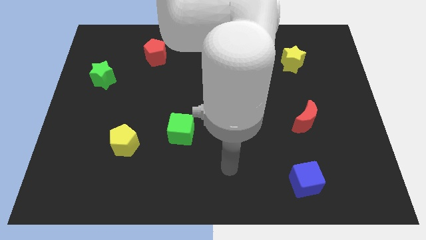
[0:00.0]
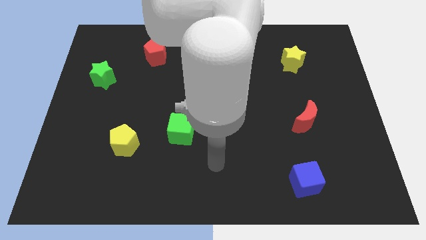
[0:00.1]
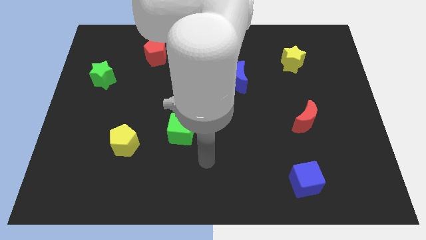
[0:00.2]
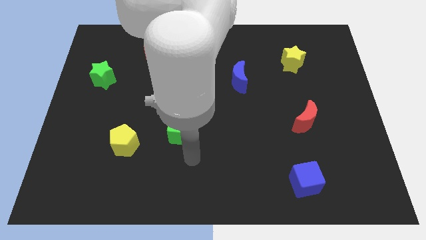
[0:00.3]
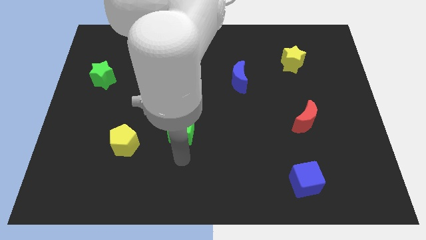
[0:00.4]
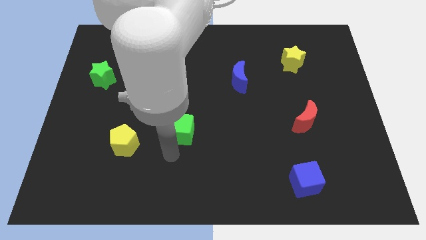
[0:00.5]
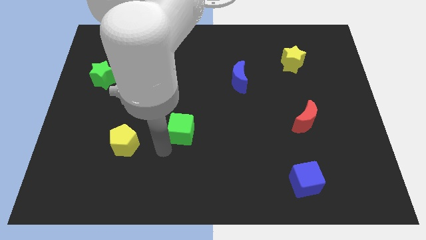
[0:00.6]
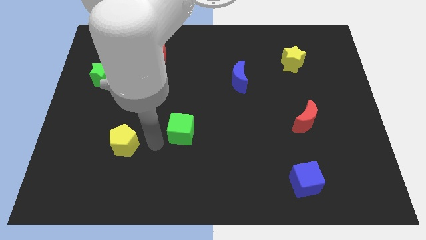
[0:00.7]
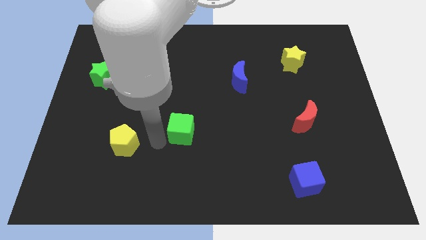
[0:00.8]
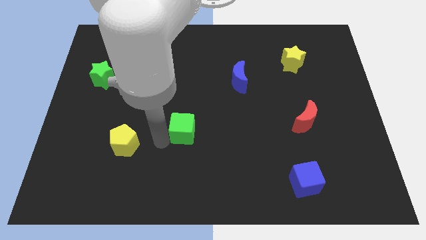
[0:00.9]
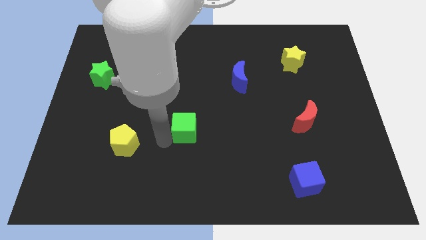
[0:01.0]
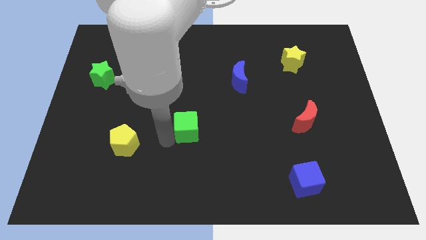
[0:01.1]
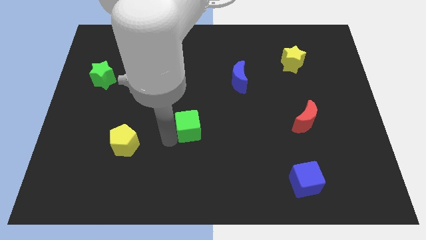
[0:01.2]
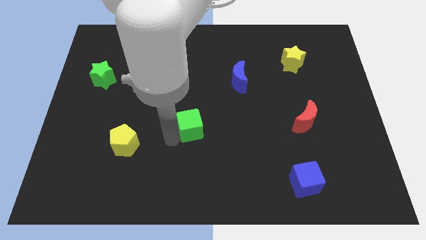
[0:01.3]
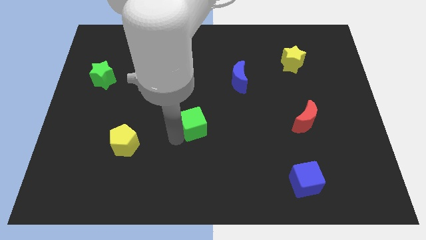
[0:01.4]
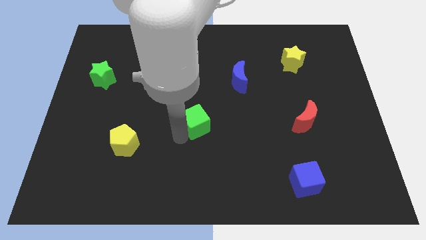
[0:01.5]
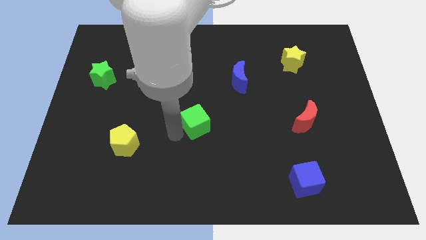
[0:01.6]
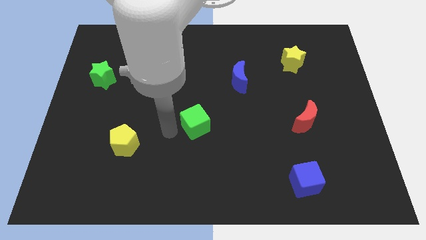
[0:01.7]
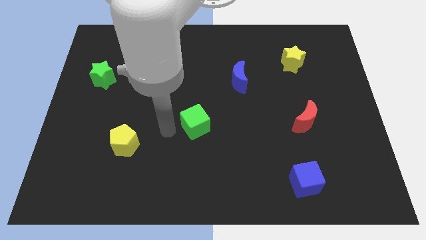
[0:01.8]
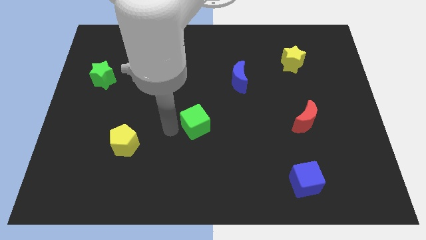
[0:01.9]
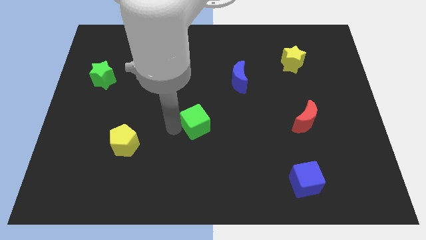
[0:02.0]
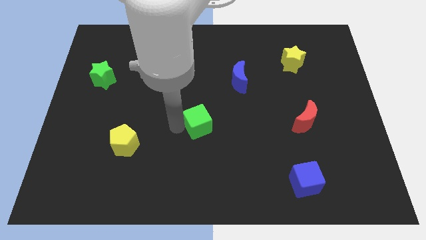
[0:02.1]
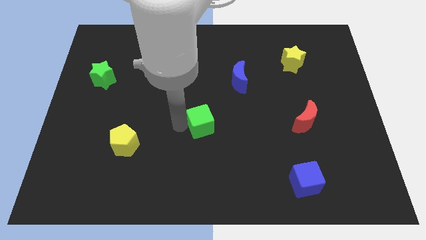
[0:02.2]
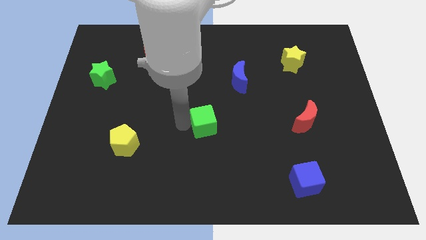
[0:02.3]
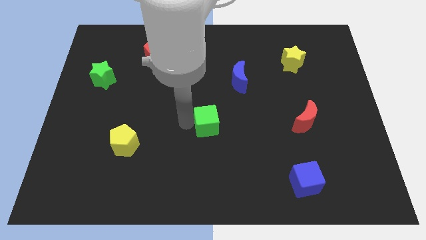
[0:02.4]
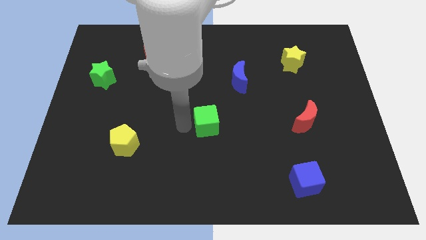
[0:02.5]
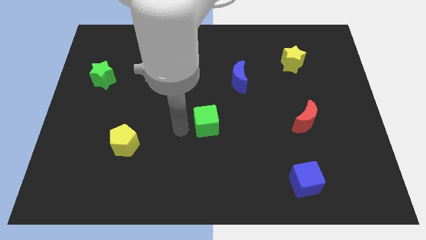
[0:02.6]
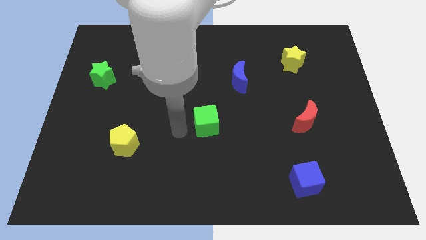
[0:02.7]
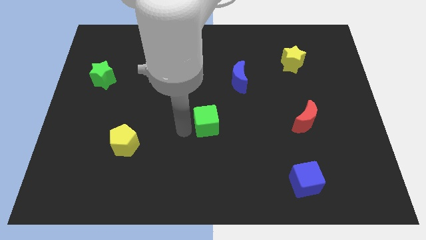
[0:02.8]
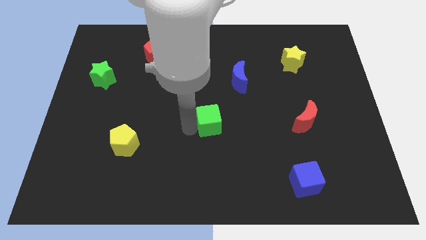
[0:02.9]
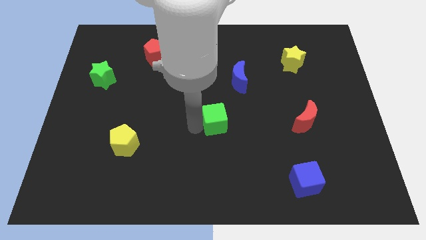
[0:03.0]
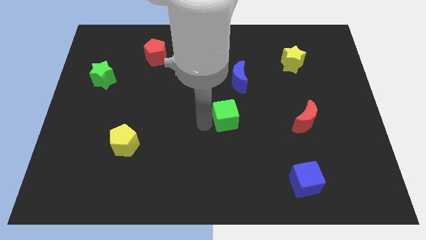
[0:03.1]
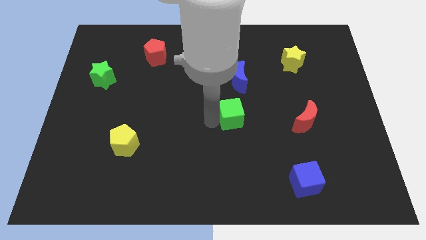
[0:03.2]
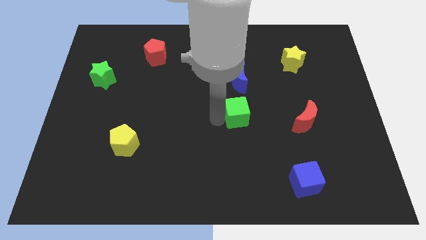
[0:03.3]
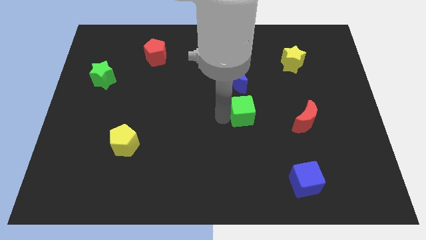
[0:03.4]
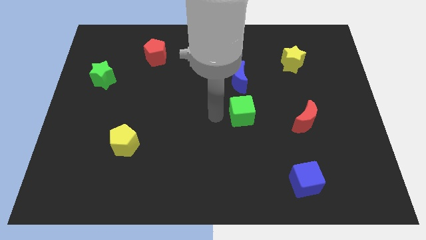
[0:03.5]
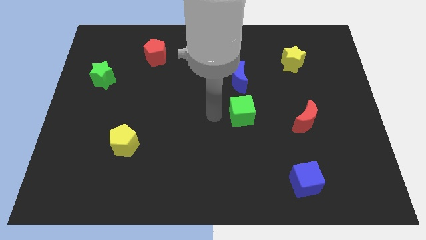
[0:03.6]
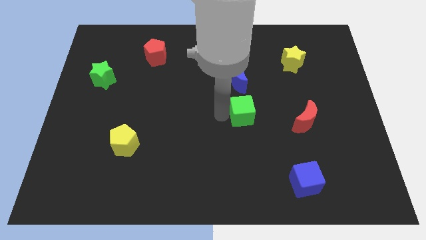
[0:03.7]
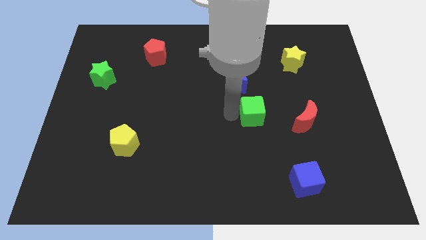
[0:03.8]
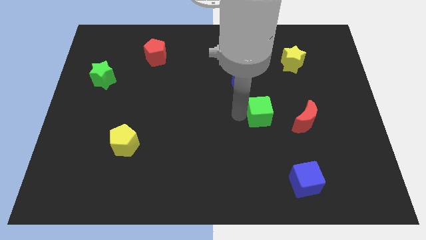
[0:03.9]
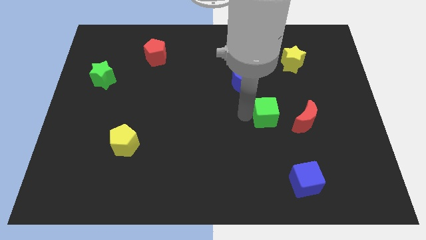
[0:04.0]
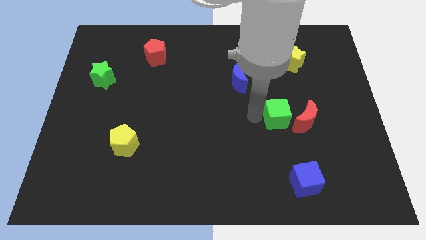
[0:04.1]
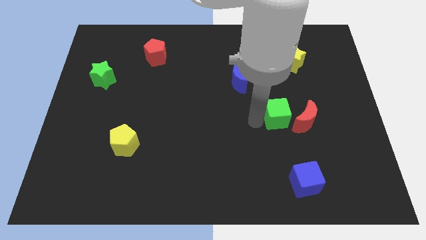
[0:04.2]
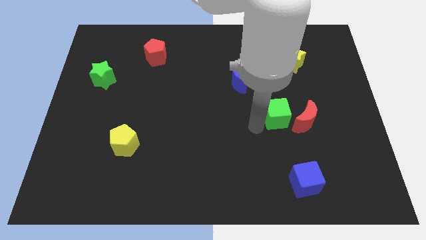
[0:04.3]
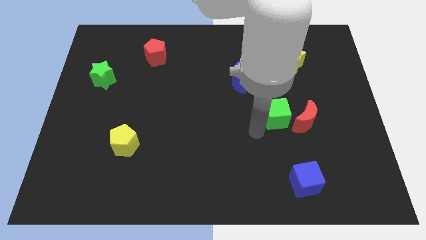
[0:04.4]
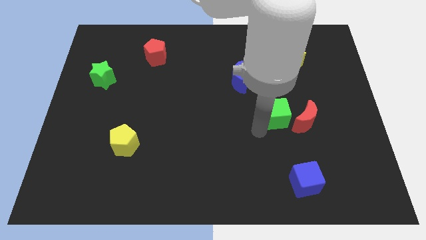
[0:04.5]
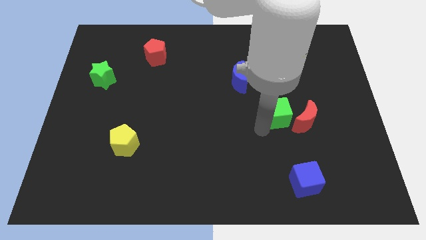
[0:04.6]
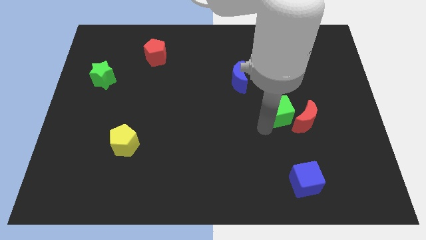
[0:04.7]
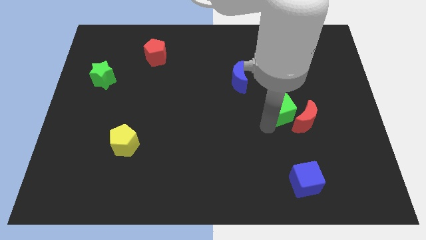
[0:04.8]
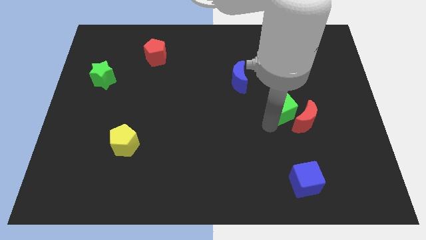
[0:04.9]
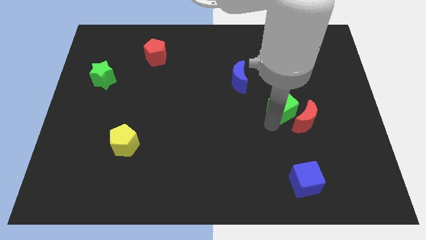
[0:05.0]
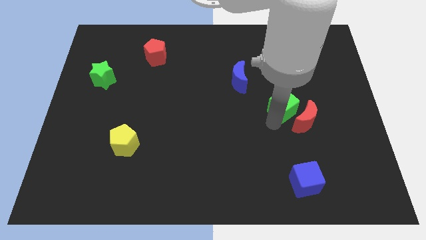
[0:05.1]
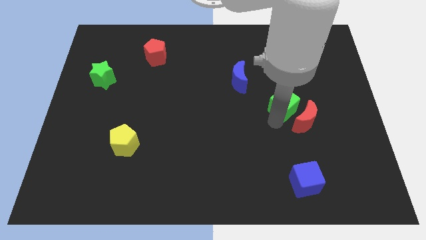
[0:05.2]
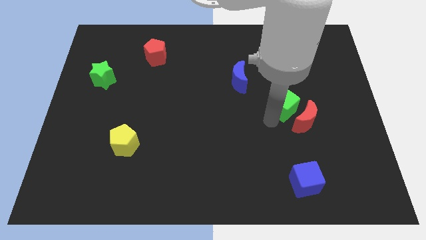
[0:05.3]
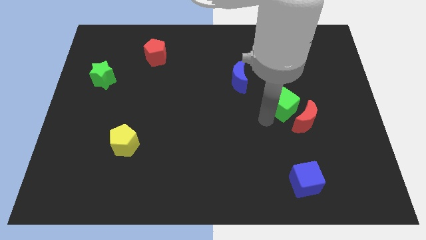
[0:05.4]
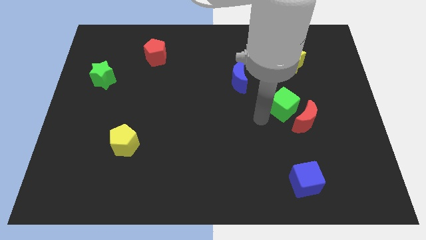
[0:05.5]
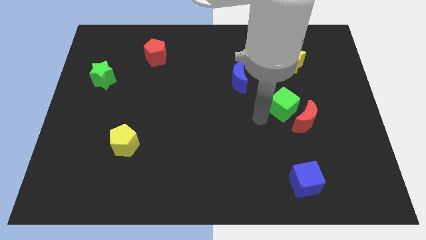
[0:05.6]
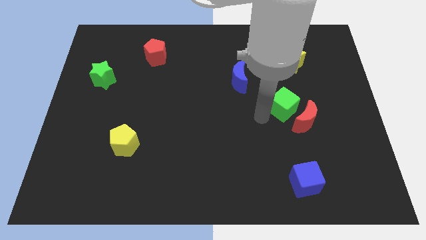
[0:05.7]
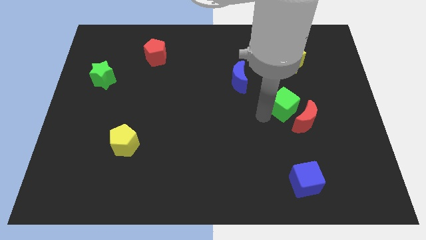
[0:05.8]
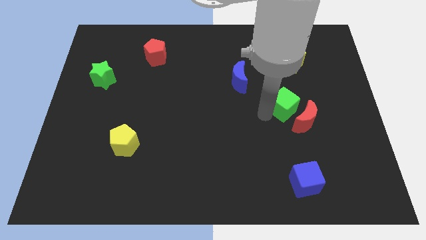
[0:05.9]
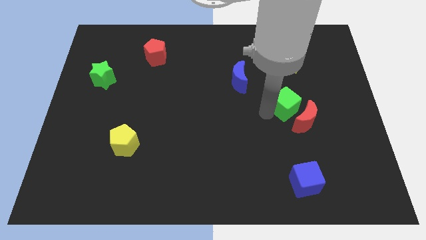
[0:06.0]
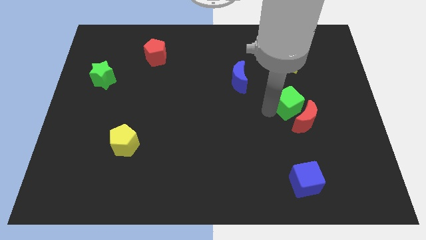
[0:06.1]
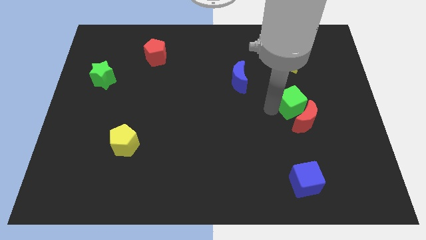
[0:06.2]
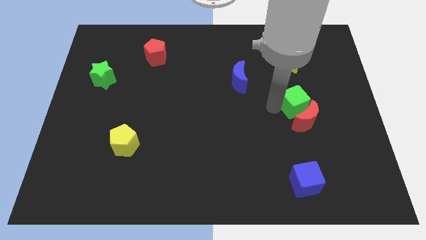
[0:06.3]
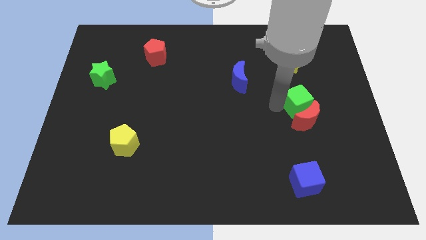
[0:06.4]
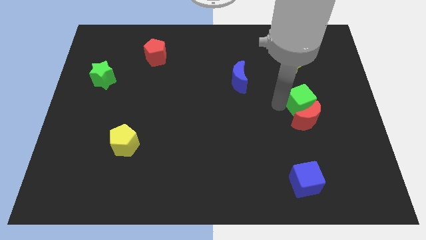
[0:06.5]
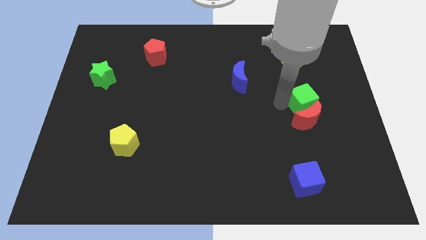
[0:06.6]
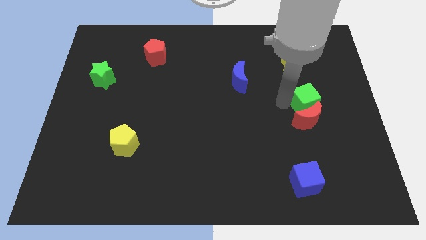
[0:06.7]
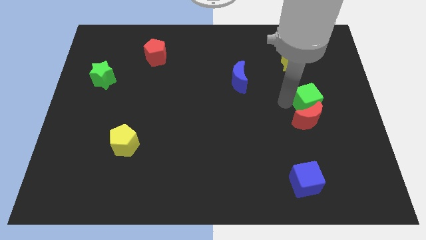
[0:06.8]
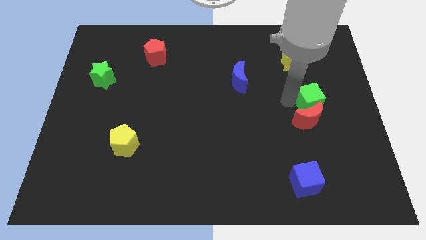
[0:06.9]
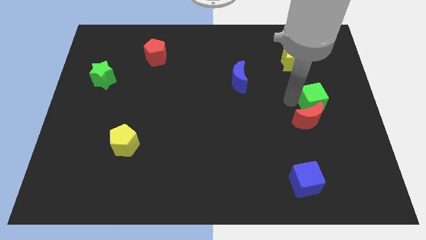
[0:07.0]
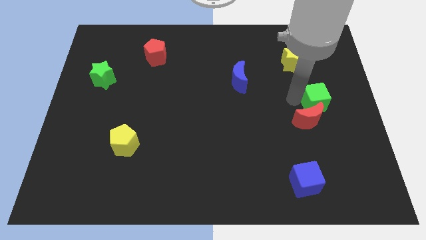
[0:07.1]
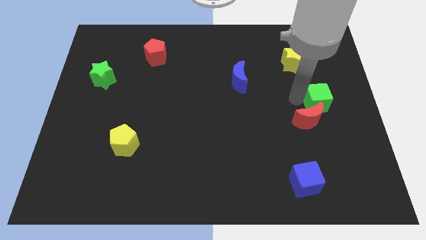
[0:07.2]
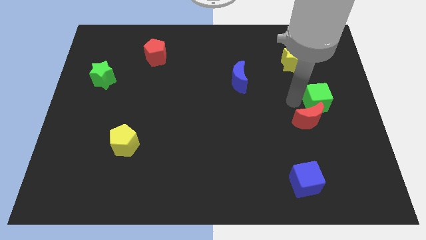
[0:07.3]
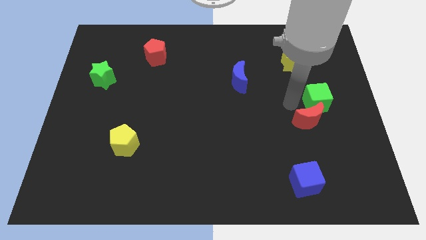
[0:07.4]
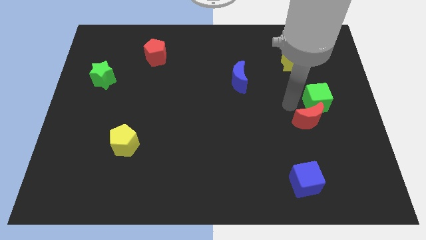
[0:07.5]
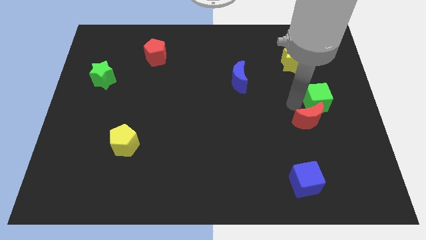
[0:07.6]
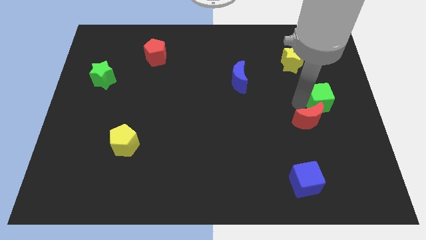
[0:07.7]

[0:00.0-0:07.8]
slide the green cube to the right side

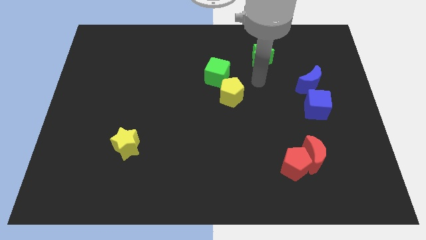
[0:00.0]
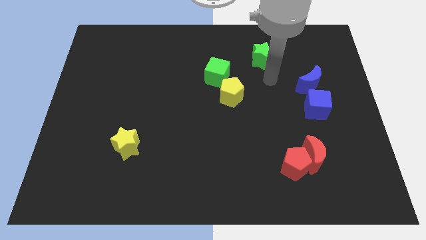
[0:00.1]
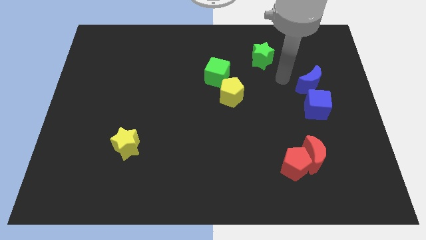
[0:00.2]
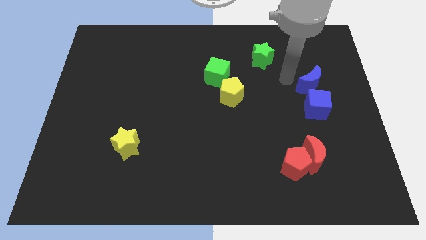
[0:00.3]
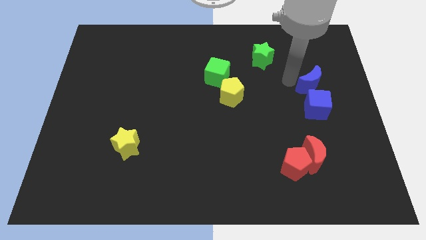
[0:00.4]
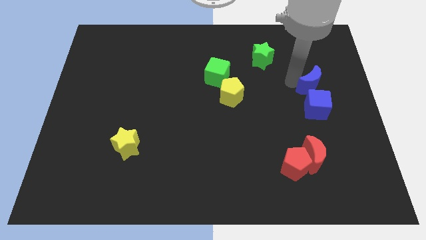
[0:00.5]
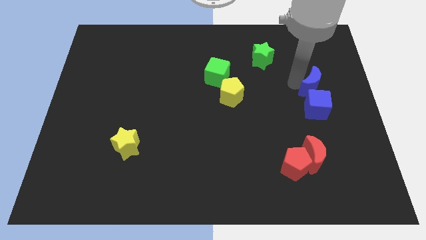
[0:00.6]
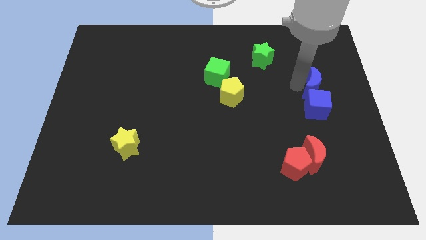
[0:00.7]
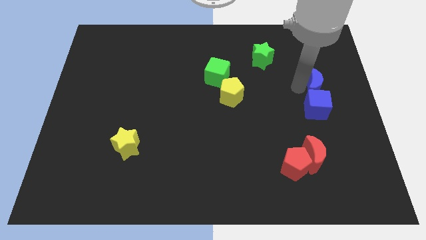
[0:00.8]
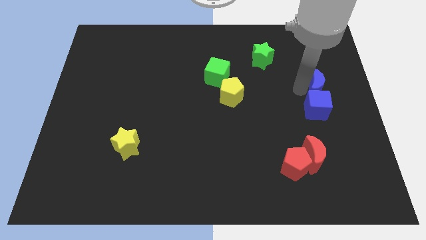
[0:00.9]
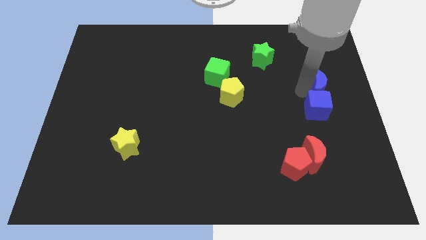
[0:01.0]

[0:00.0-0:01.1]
slide the blue moon to the right side
